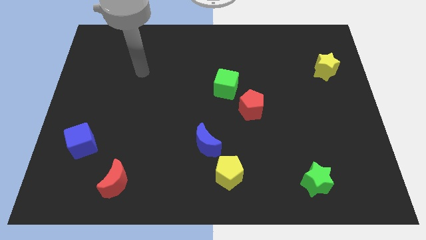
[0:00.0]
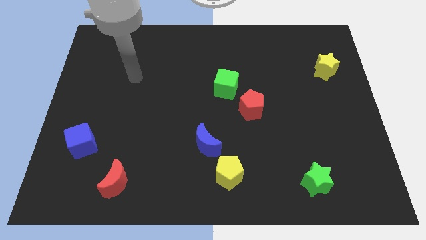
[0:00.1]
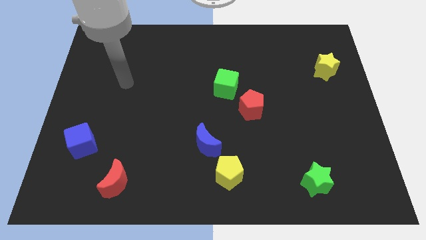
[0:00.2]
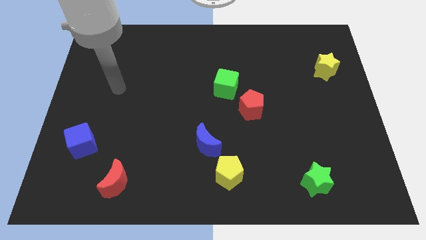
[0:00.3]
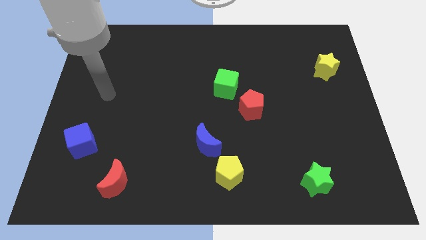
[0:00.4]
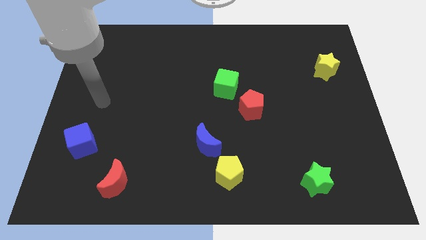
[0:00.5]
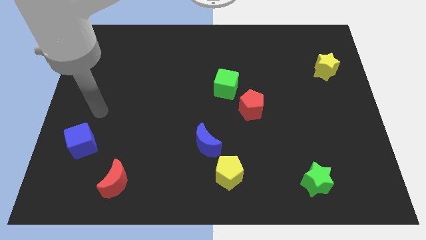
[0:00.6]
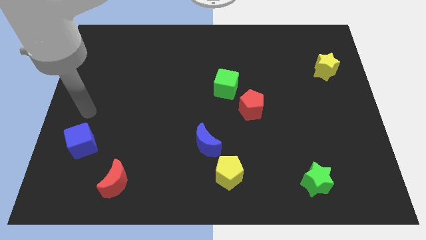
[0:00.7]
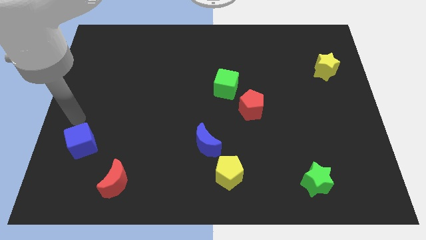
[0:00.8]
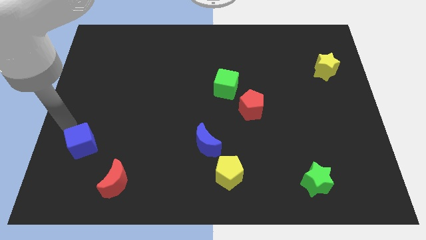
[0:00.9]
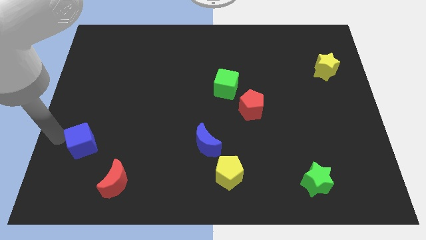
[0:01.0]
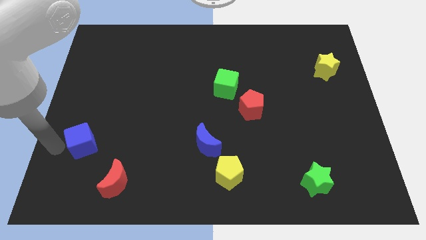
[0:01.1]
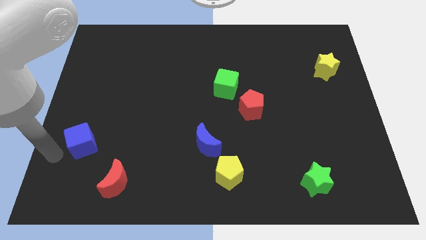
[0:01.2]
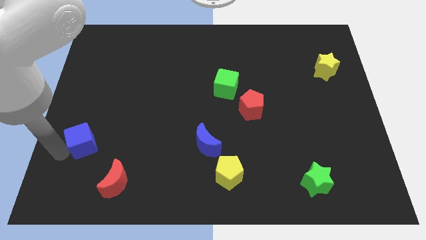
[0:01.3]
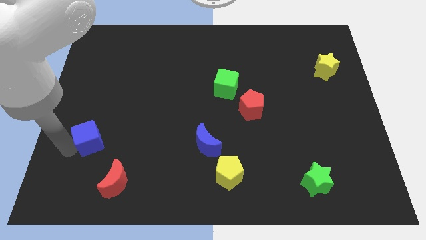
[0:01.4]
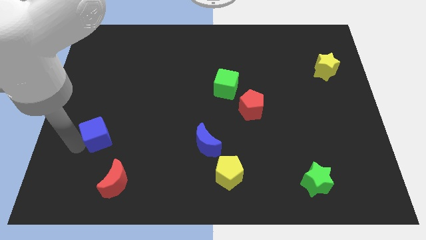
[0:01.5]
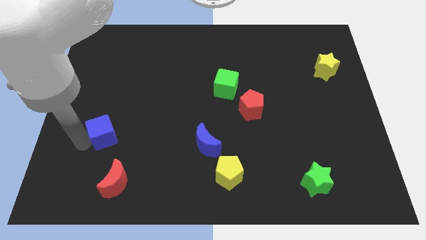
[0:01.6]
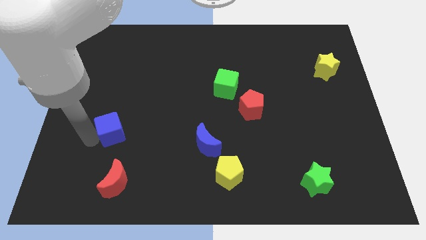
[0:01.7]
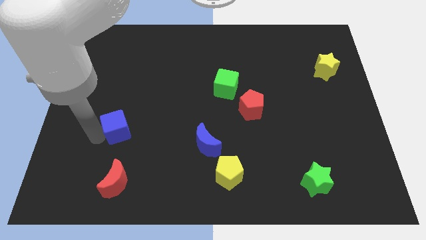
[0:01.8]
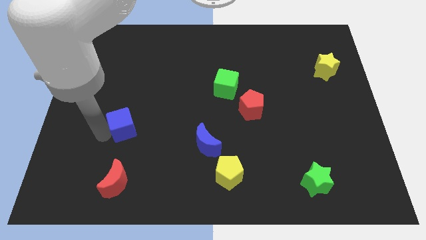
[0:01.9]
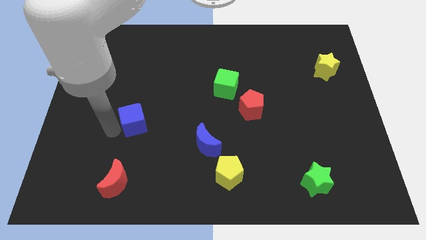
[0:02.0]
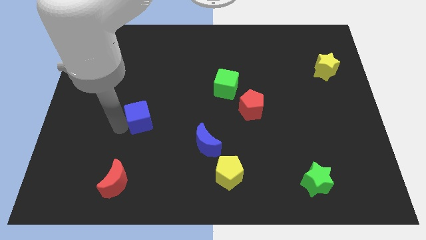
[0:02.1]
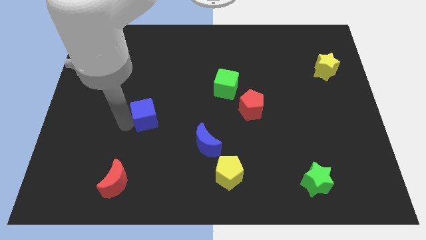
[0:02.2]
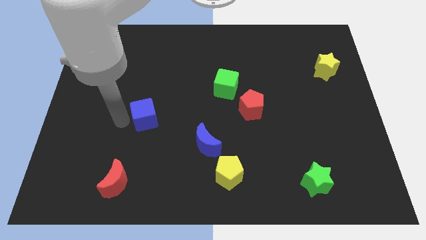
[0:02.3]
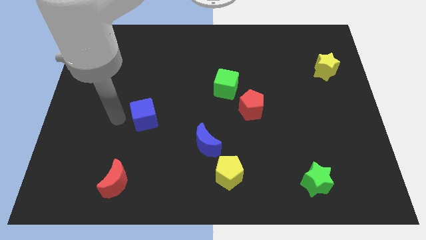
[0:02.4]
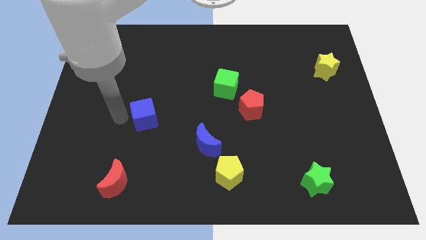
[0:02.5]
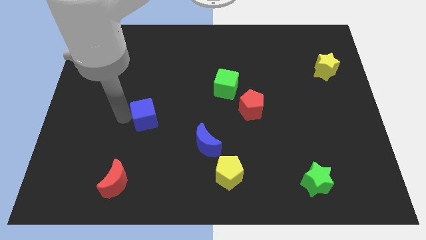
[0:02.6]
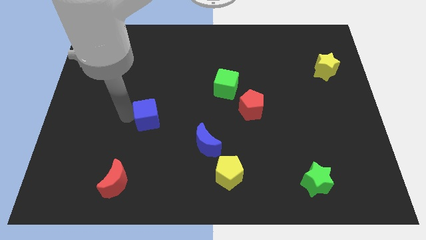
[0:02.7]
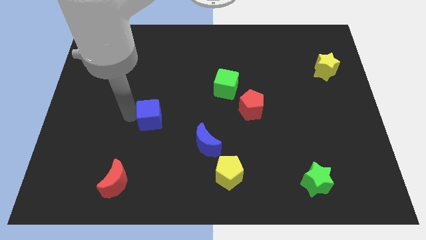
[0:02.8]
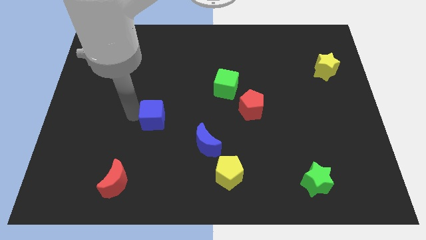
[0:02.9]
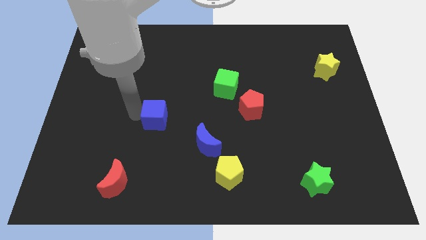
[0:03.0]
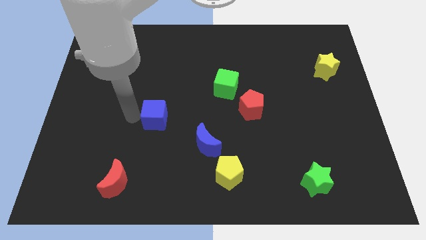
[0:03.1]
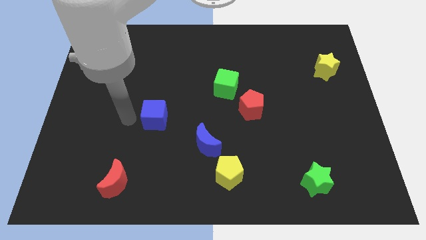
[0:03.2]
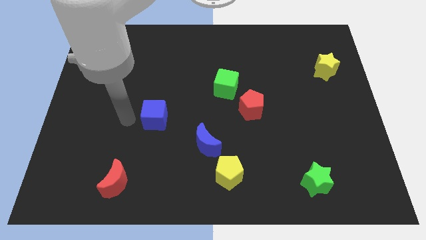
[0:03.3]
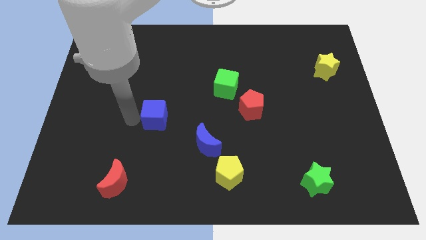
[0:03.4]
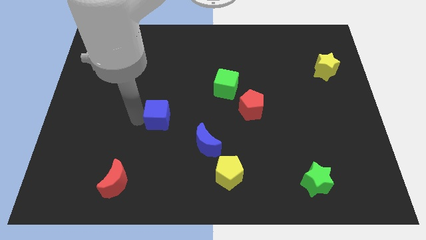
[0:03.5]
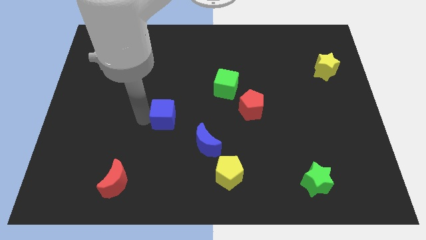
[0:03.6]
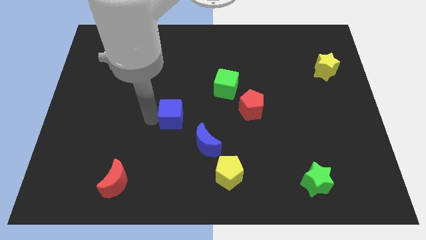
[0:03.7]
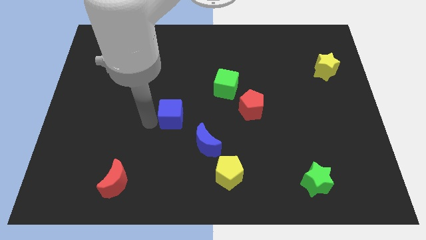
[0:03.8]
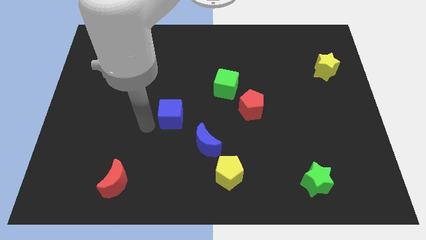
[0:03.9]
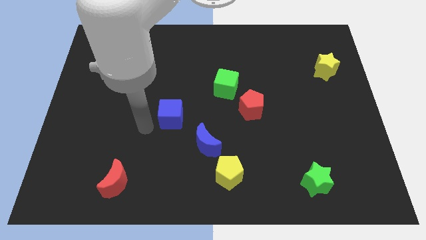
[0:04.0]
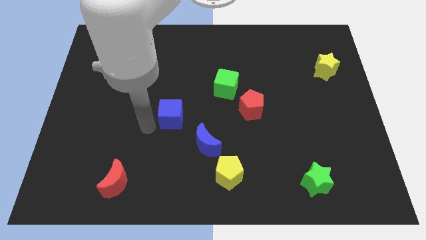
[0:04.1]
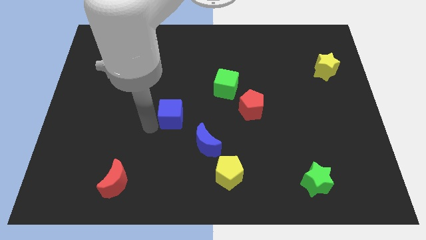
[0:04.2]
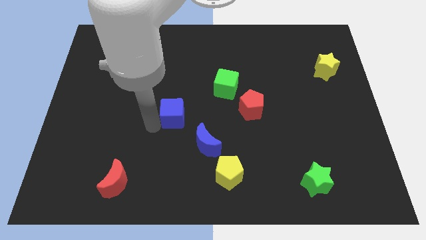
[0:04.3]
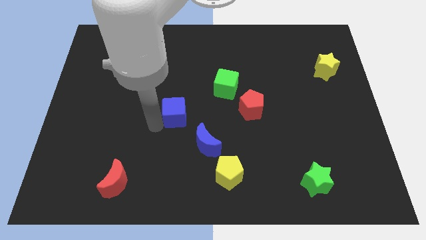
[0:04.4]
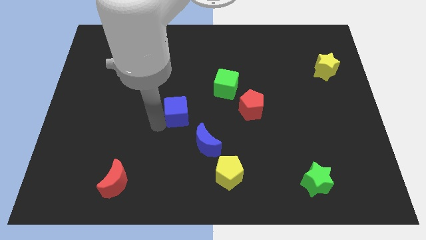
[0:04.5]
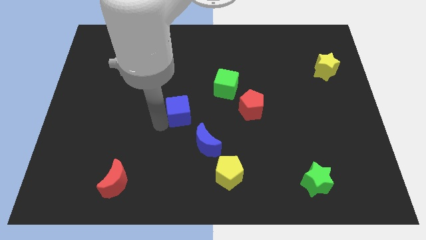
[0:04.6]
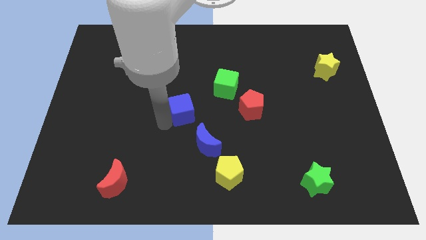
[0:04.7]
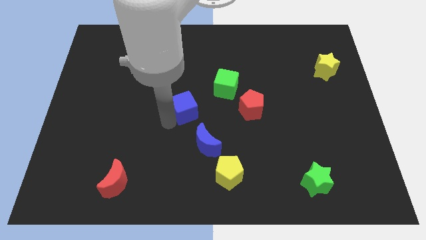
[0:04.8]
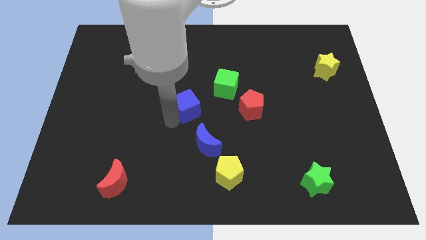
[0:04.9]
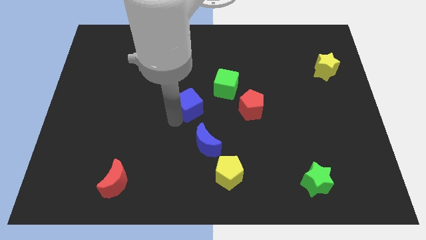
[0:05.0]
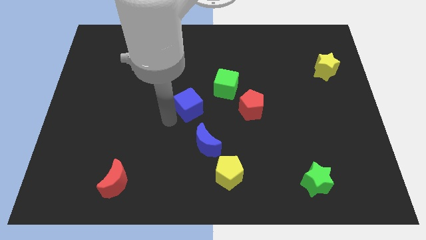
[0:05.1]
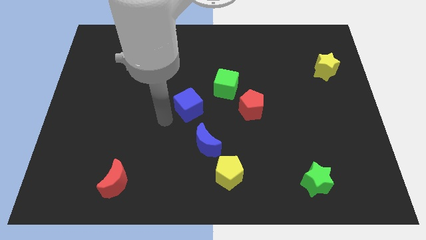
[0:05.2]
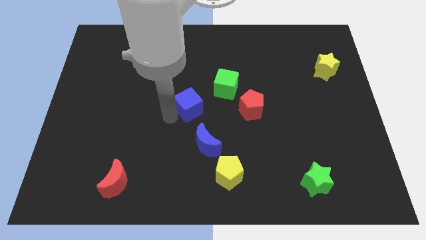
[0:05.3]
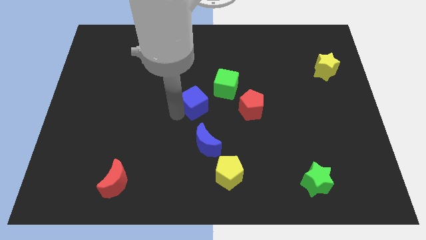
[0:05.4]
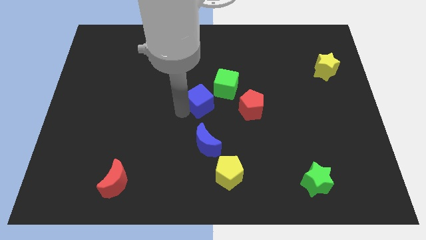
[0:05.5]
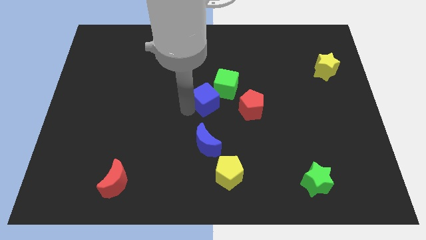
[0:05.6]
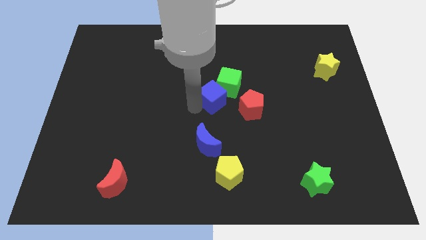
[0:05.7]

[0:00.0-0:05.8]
move the blue cube next to the green cube

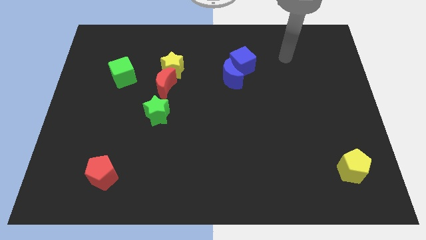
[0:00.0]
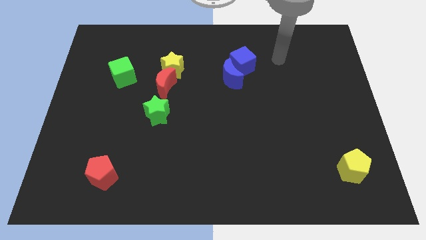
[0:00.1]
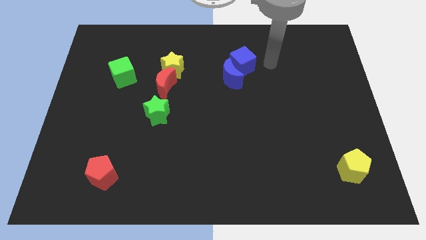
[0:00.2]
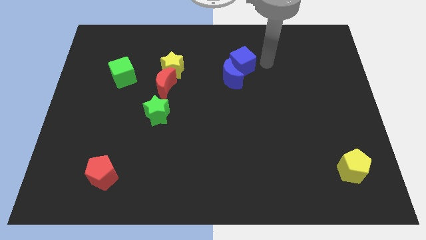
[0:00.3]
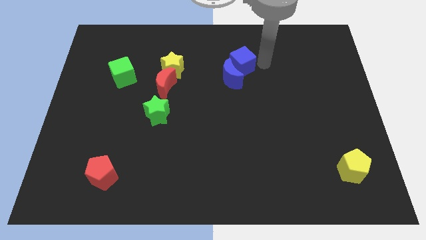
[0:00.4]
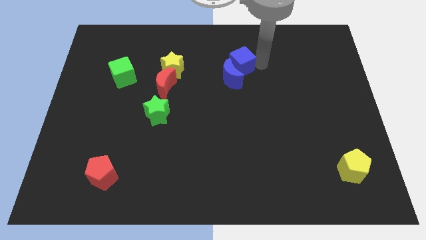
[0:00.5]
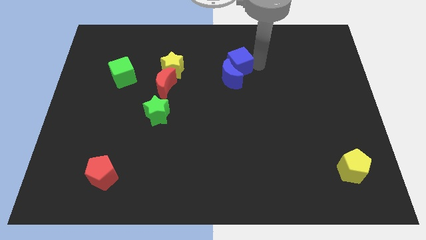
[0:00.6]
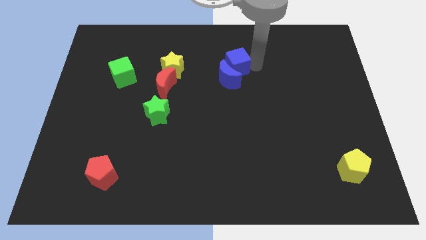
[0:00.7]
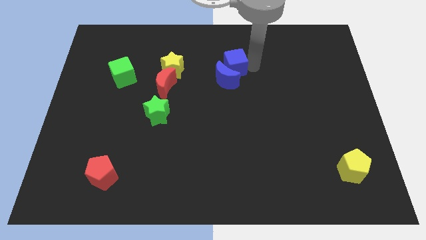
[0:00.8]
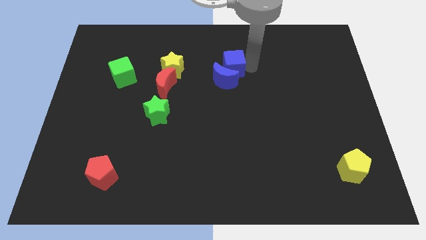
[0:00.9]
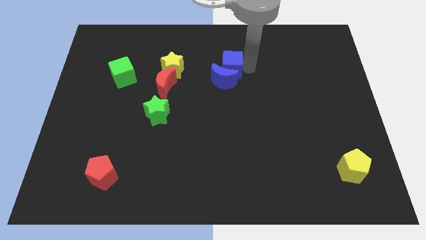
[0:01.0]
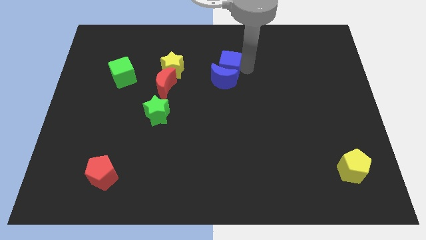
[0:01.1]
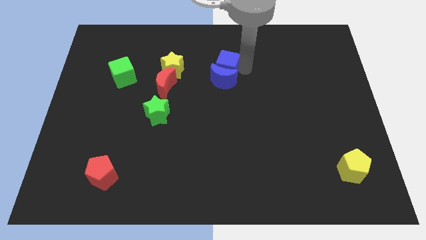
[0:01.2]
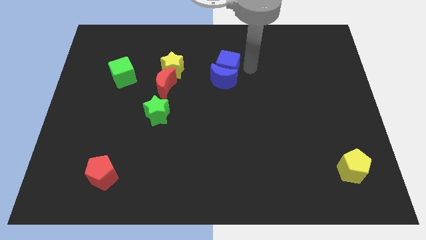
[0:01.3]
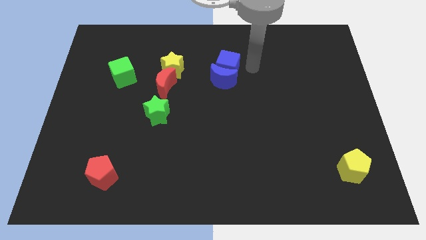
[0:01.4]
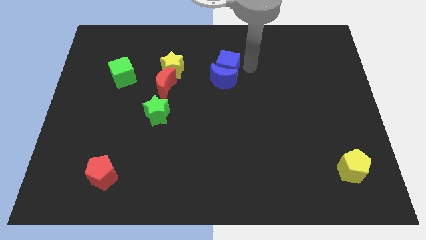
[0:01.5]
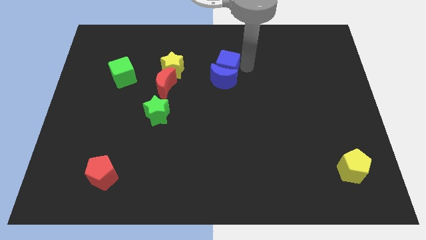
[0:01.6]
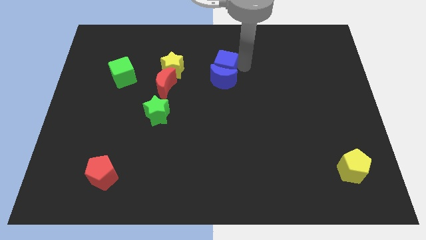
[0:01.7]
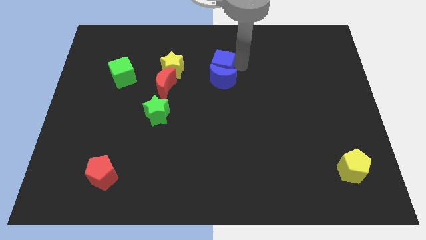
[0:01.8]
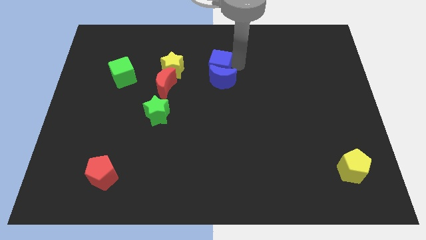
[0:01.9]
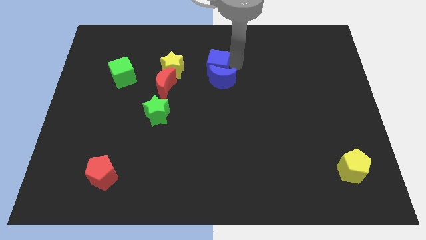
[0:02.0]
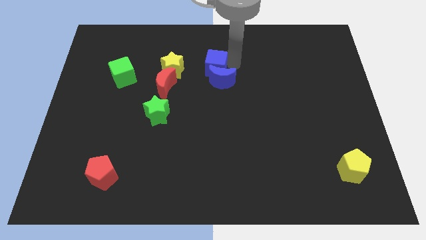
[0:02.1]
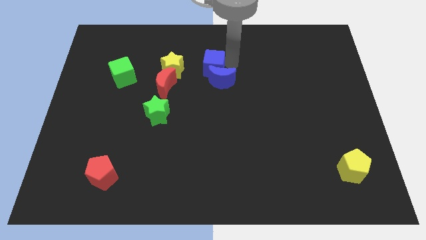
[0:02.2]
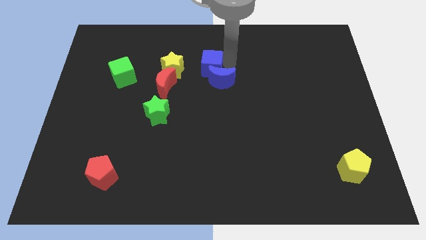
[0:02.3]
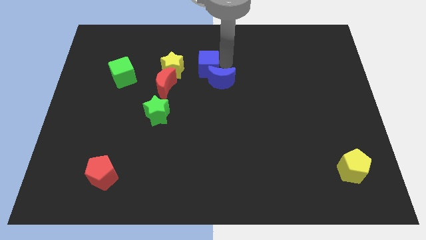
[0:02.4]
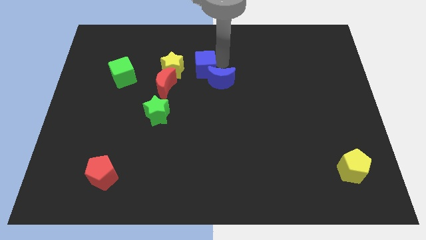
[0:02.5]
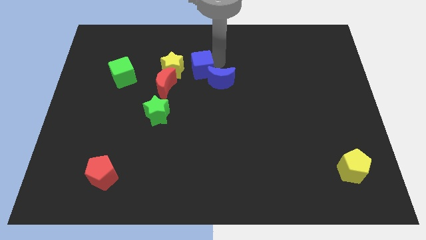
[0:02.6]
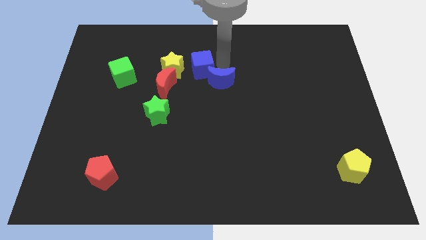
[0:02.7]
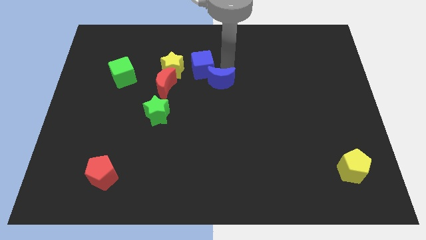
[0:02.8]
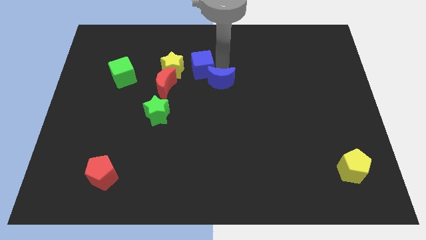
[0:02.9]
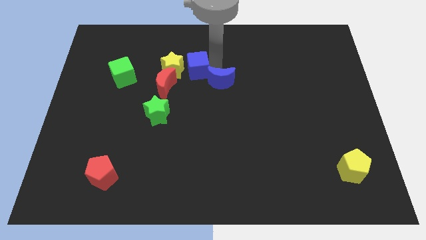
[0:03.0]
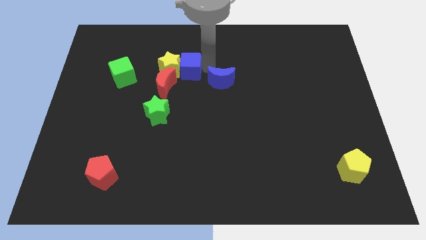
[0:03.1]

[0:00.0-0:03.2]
put the blue cube to the yellow star
